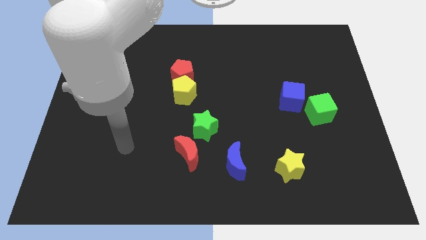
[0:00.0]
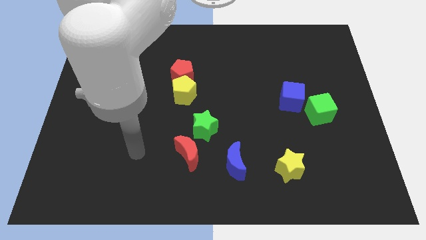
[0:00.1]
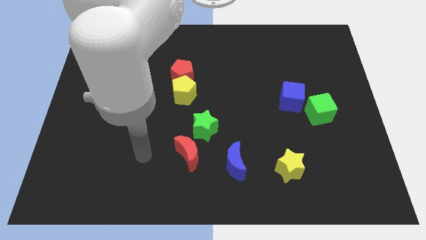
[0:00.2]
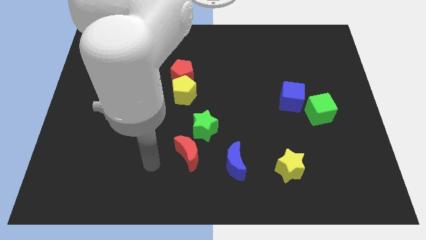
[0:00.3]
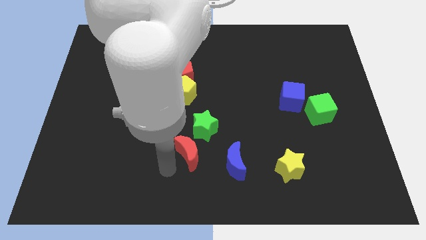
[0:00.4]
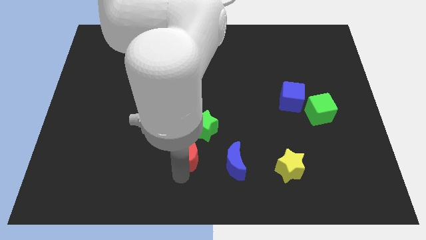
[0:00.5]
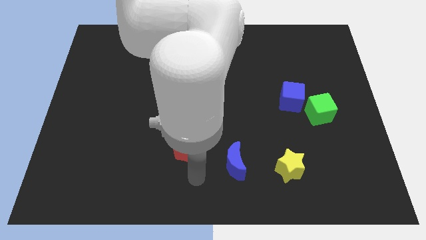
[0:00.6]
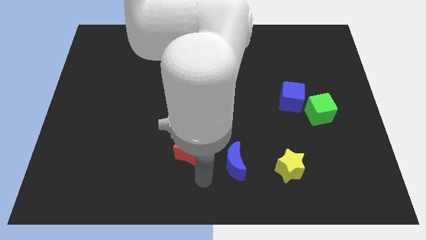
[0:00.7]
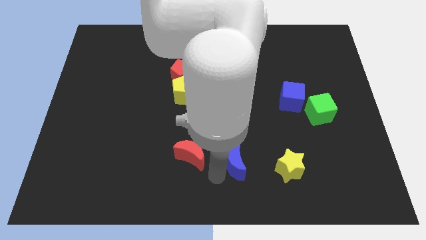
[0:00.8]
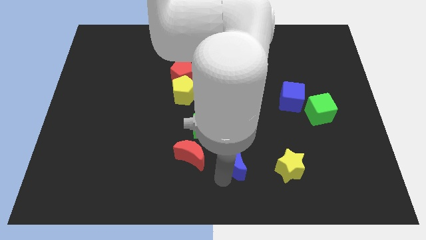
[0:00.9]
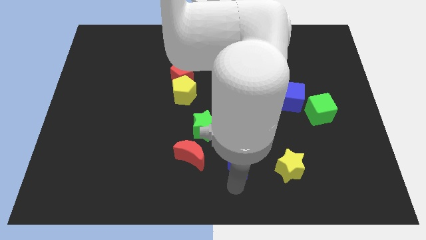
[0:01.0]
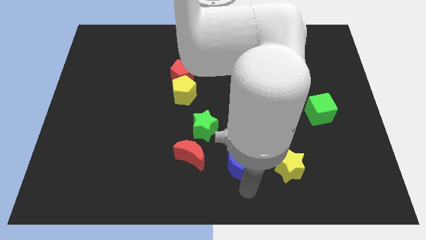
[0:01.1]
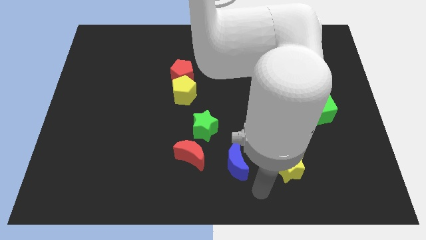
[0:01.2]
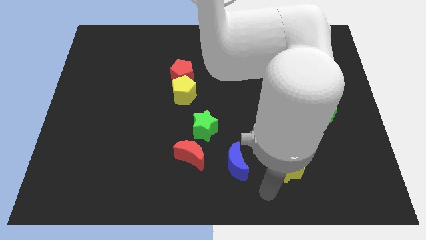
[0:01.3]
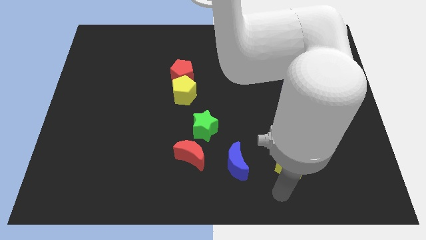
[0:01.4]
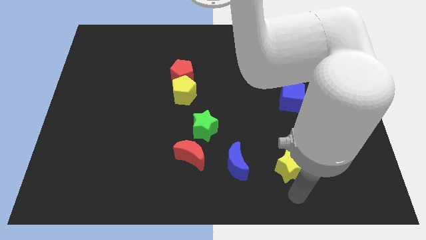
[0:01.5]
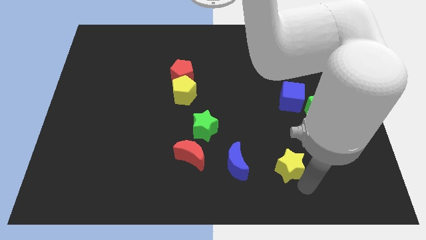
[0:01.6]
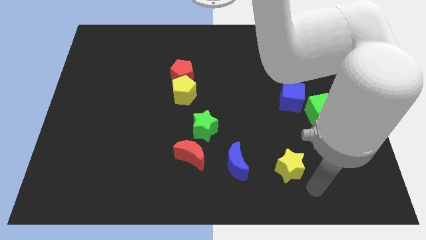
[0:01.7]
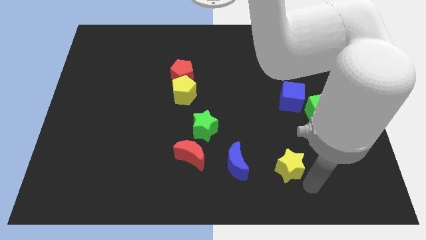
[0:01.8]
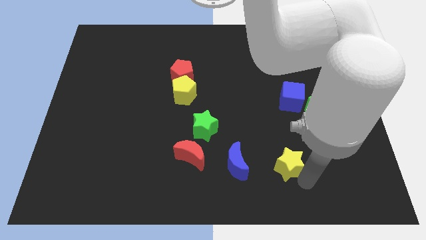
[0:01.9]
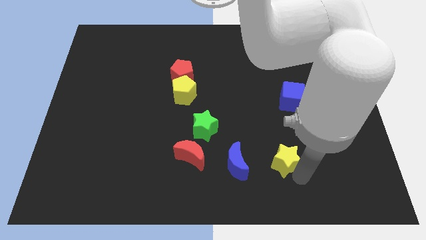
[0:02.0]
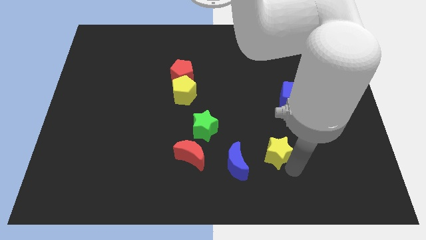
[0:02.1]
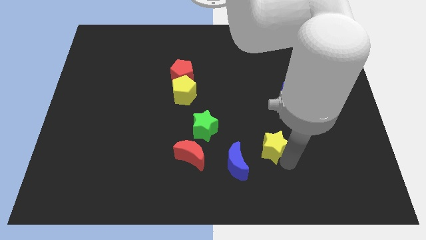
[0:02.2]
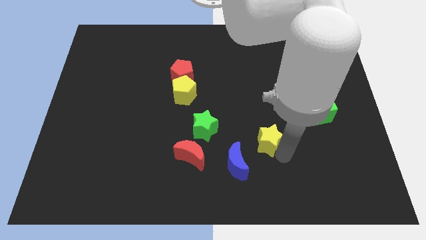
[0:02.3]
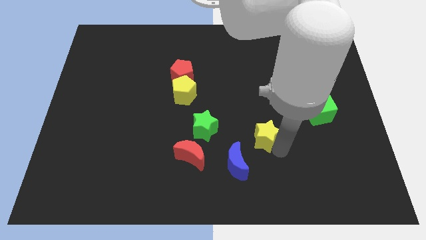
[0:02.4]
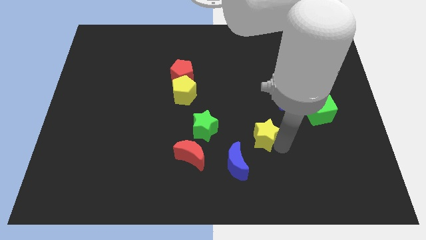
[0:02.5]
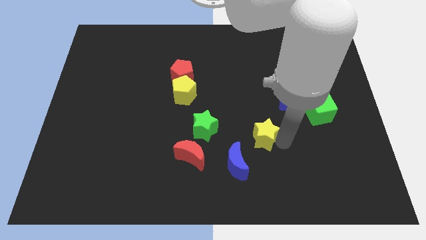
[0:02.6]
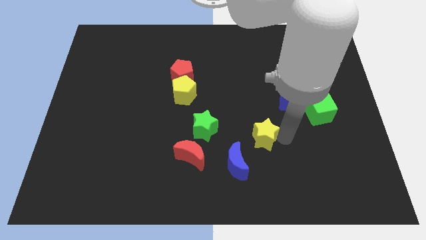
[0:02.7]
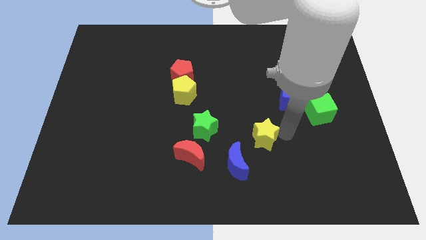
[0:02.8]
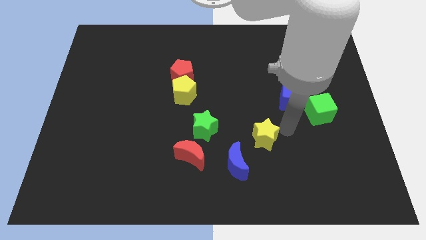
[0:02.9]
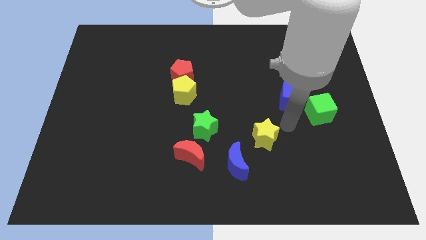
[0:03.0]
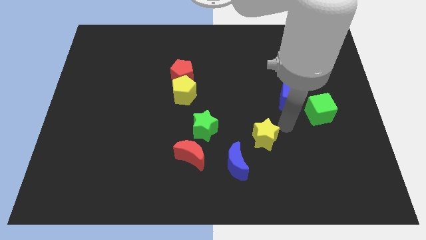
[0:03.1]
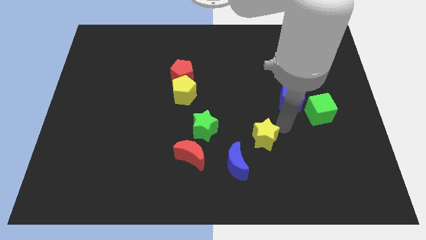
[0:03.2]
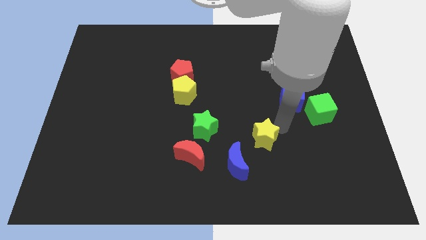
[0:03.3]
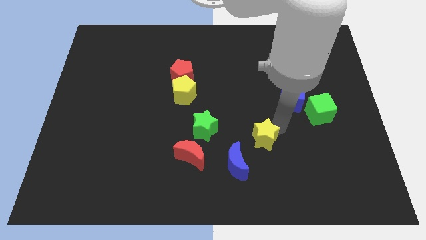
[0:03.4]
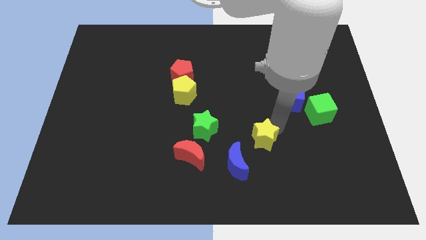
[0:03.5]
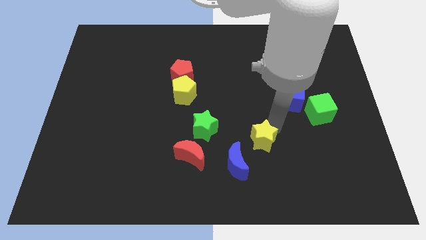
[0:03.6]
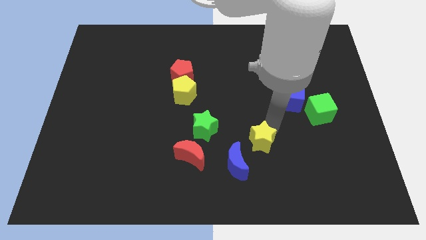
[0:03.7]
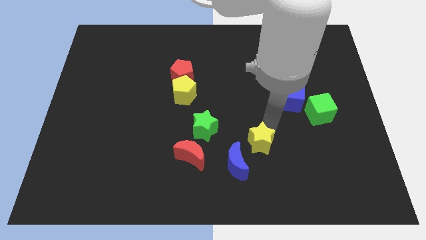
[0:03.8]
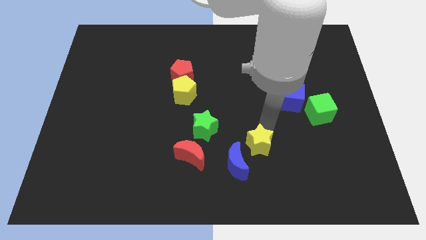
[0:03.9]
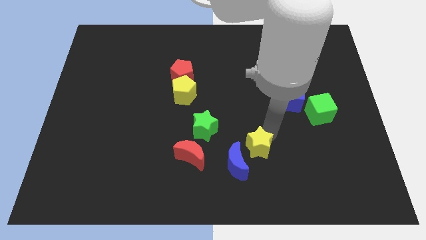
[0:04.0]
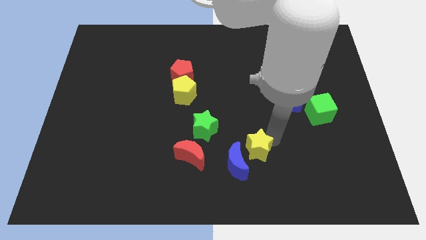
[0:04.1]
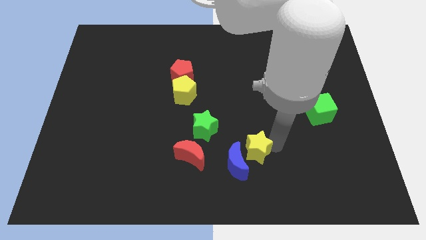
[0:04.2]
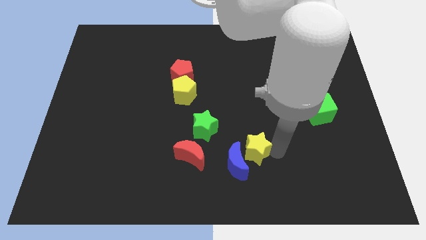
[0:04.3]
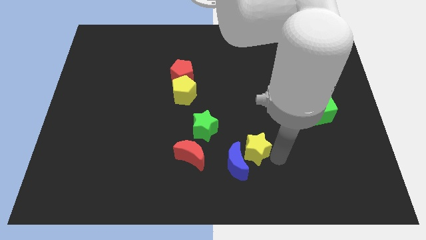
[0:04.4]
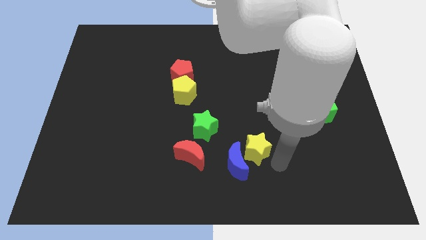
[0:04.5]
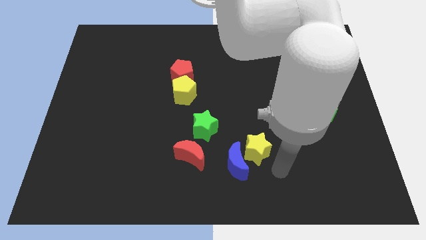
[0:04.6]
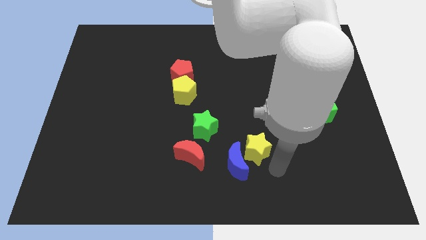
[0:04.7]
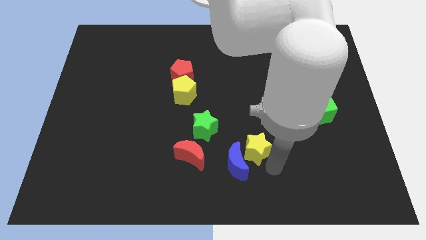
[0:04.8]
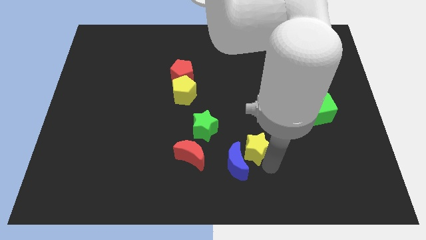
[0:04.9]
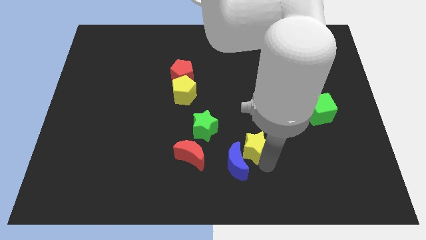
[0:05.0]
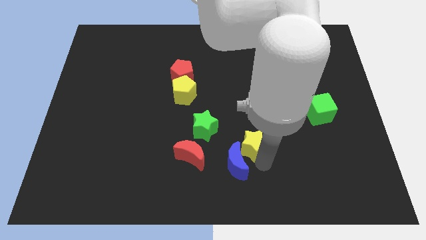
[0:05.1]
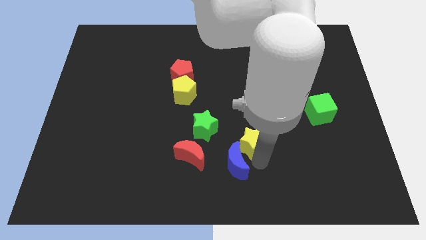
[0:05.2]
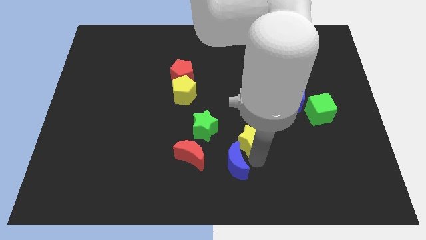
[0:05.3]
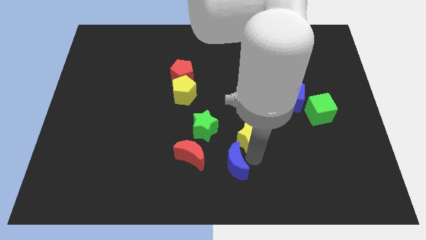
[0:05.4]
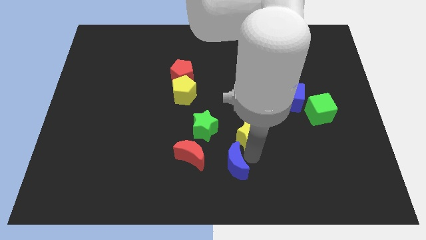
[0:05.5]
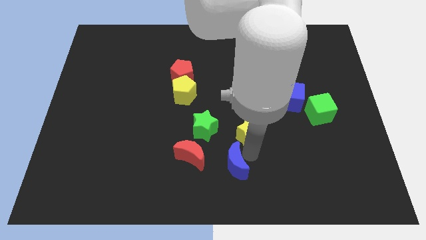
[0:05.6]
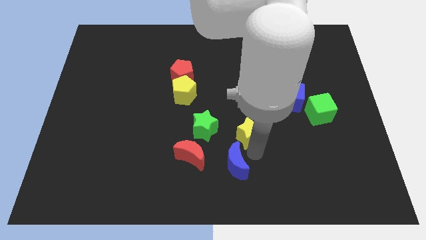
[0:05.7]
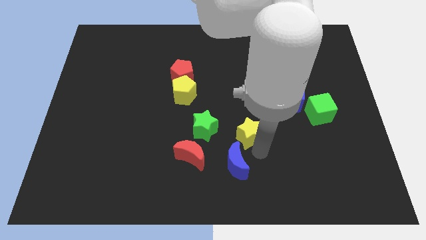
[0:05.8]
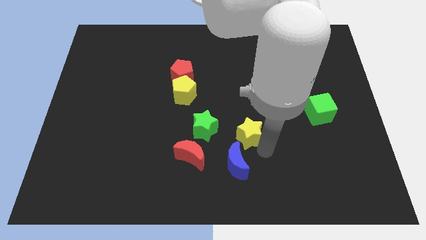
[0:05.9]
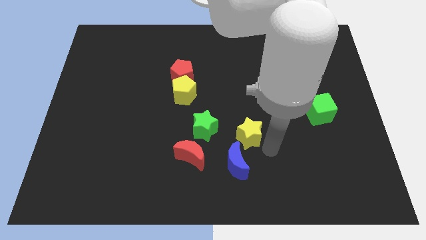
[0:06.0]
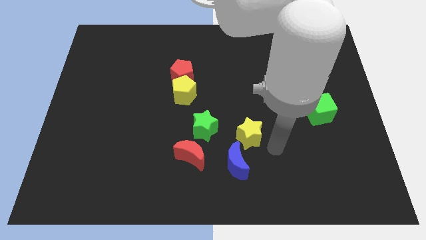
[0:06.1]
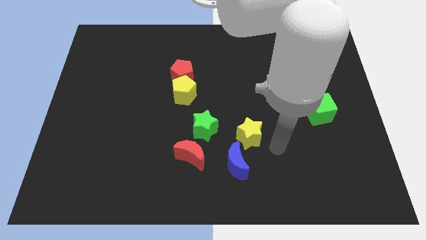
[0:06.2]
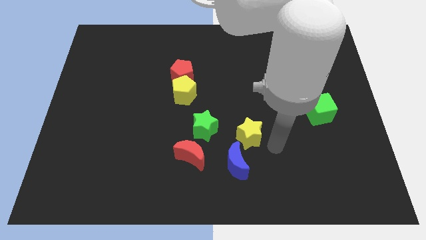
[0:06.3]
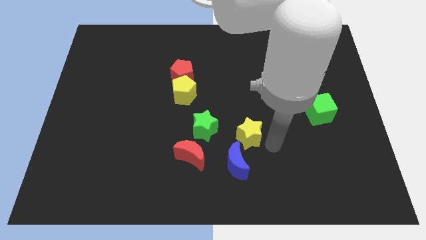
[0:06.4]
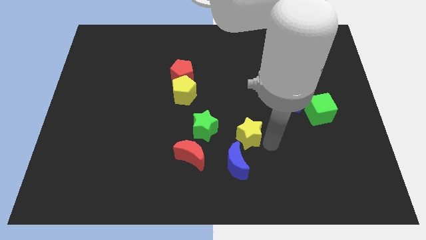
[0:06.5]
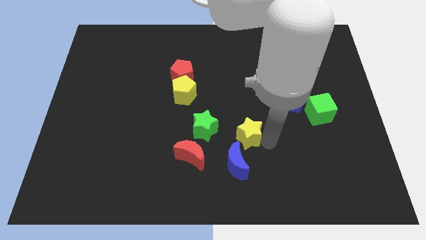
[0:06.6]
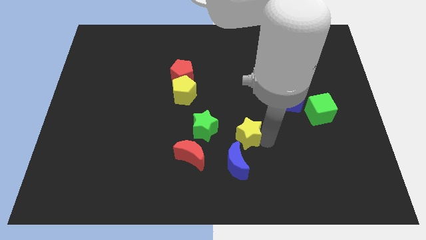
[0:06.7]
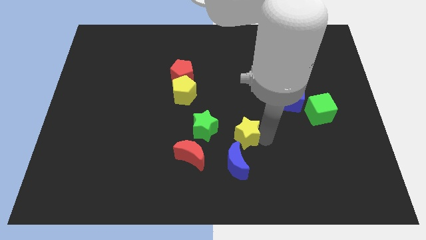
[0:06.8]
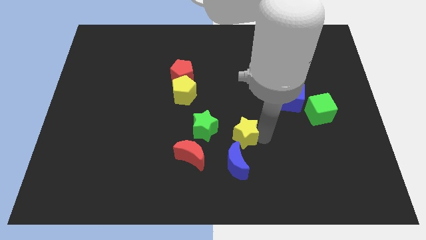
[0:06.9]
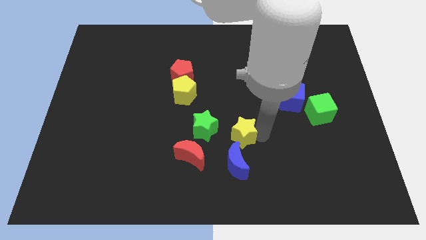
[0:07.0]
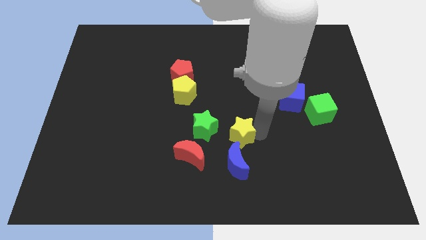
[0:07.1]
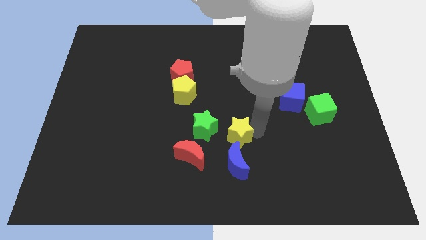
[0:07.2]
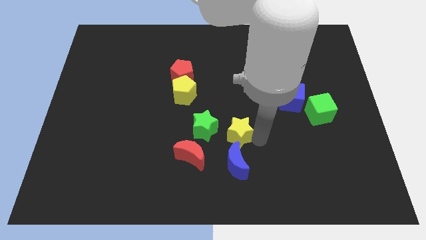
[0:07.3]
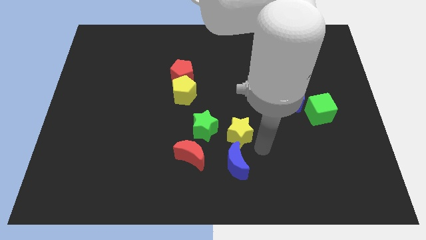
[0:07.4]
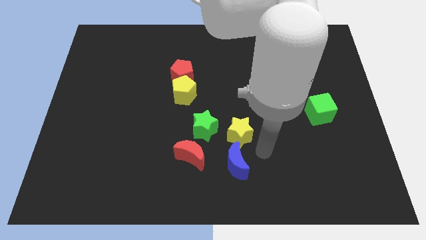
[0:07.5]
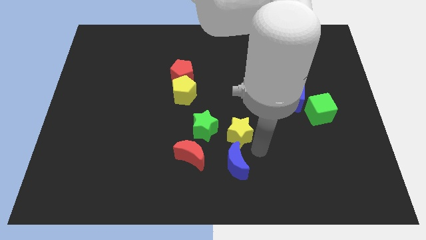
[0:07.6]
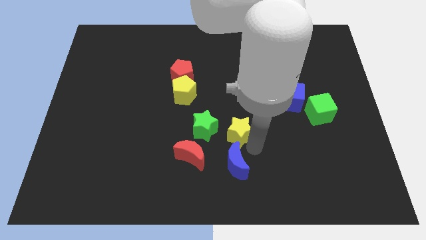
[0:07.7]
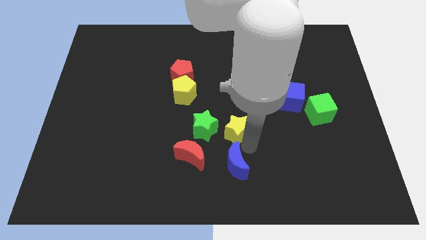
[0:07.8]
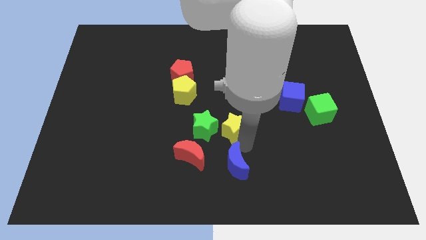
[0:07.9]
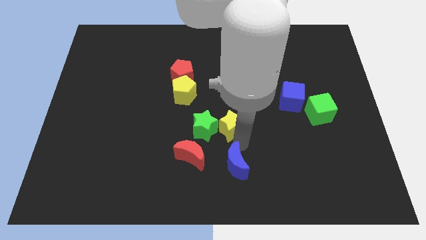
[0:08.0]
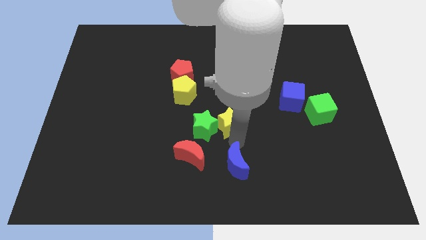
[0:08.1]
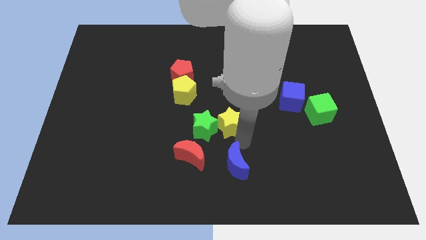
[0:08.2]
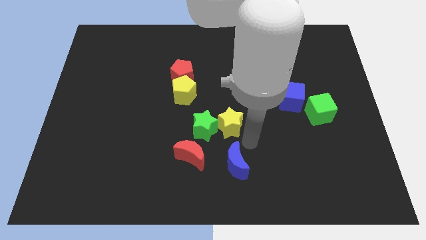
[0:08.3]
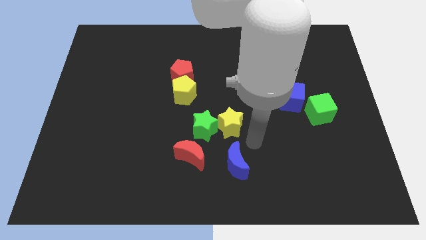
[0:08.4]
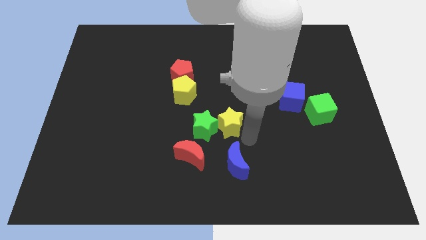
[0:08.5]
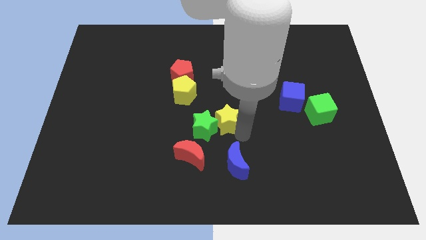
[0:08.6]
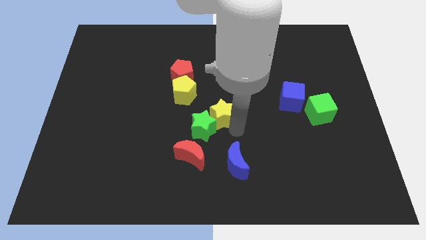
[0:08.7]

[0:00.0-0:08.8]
put the yellow star diagonally down and to the right of the yellow pentagon
